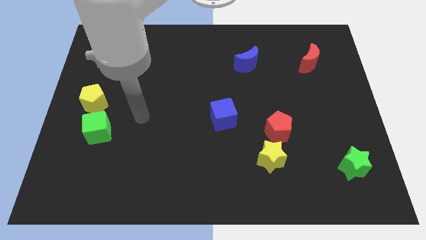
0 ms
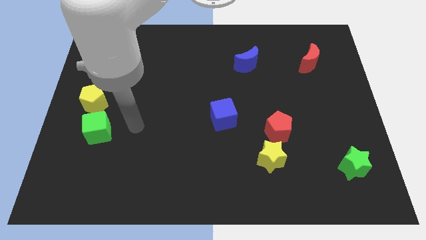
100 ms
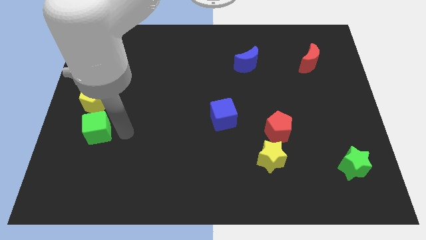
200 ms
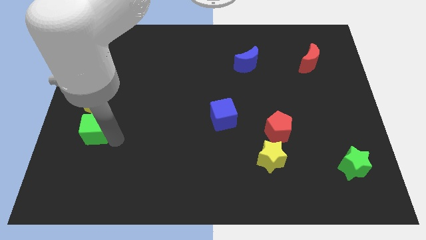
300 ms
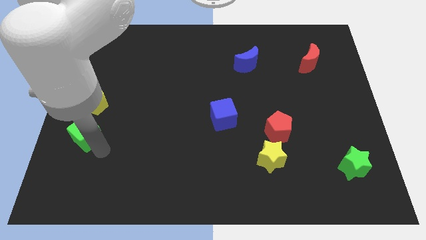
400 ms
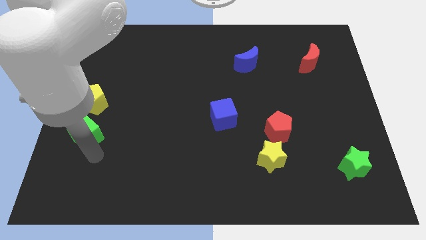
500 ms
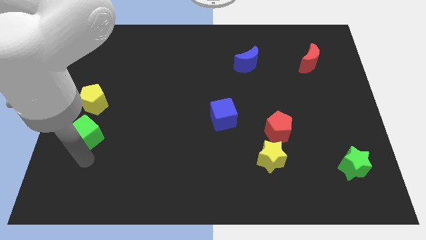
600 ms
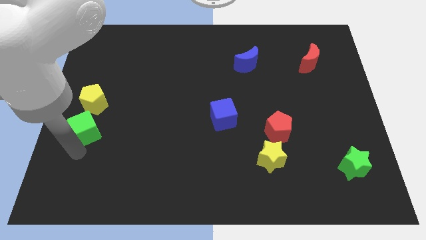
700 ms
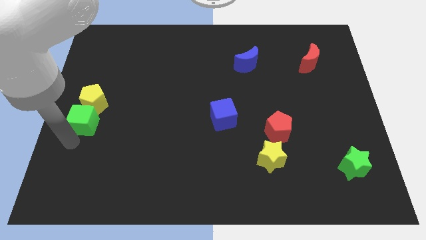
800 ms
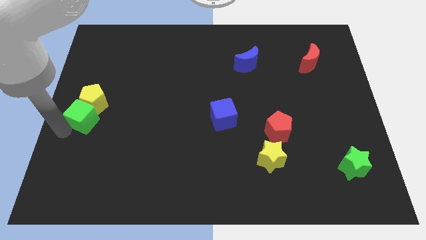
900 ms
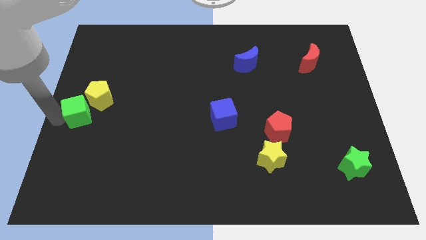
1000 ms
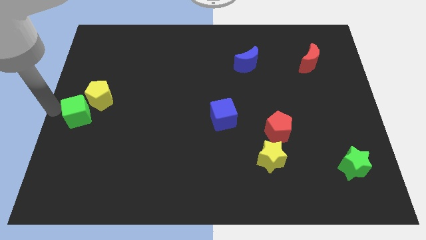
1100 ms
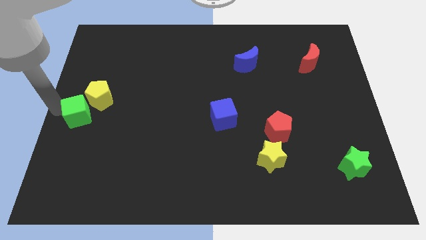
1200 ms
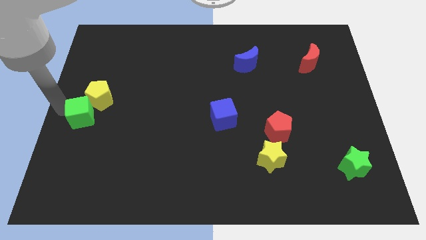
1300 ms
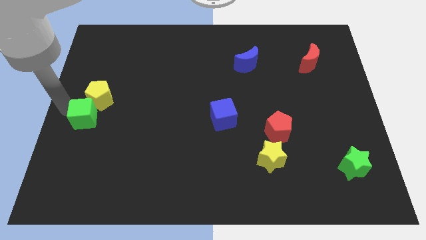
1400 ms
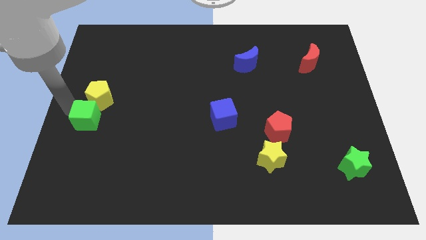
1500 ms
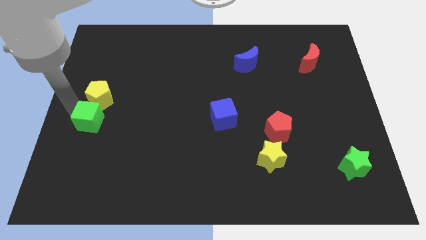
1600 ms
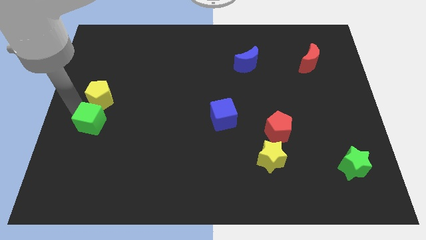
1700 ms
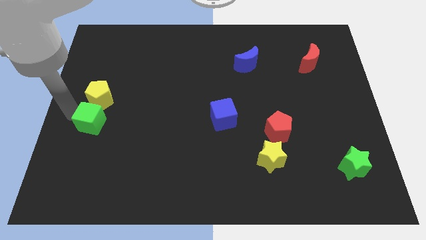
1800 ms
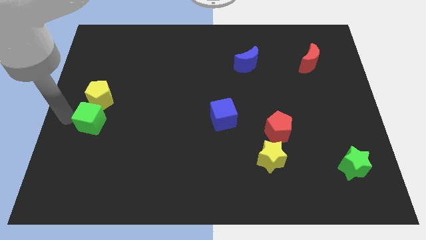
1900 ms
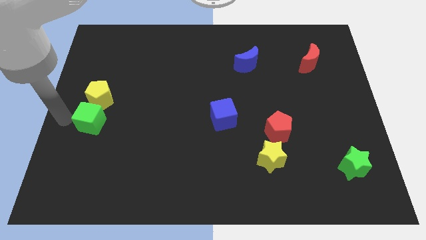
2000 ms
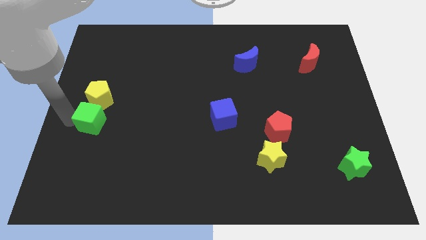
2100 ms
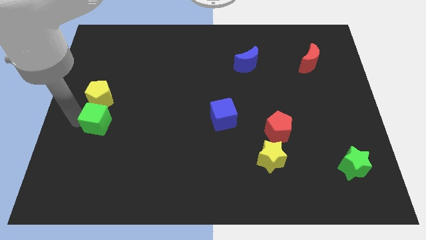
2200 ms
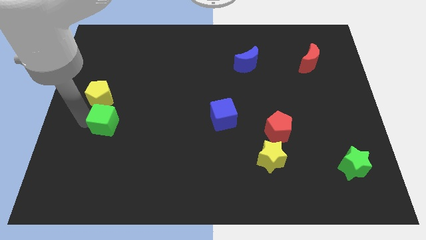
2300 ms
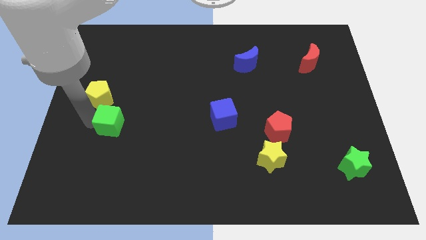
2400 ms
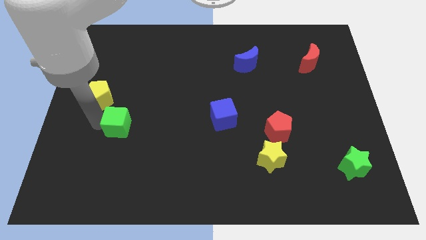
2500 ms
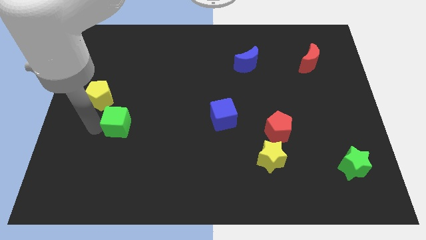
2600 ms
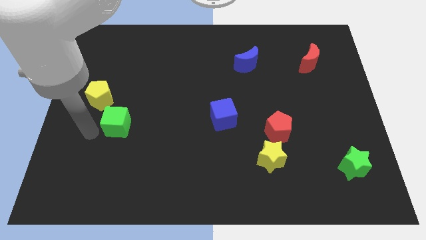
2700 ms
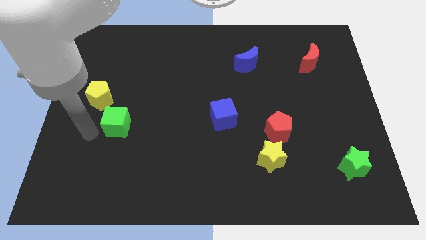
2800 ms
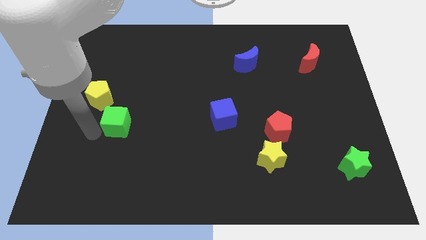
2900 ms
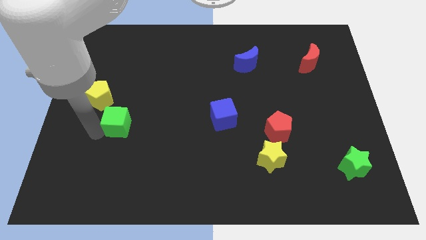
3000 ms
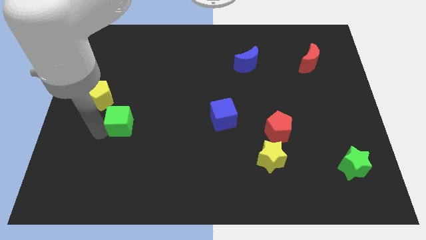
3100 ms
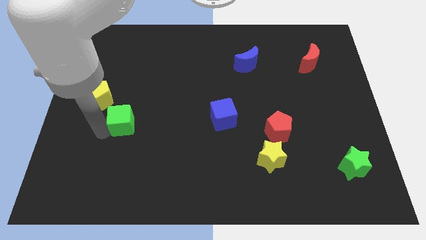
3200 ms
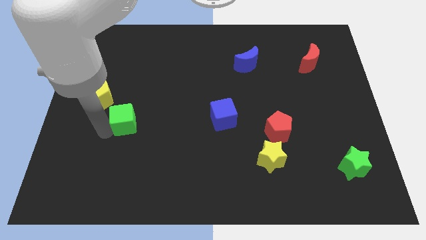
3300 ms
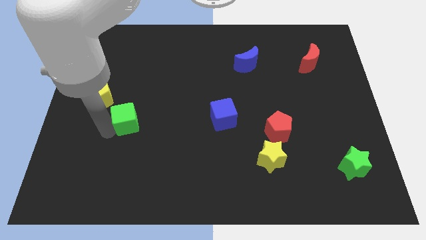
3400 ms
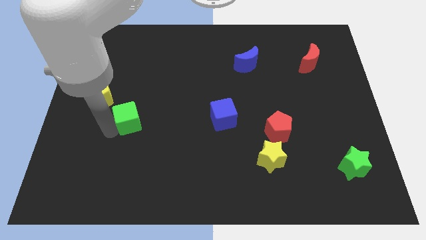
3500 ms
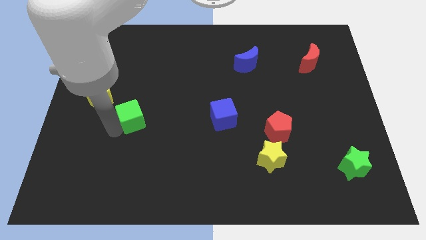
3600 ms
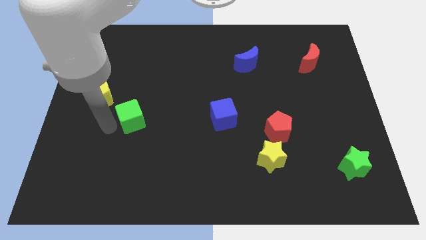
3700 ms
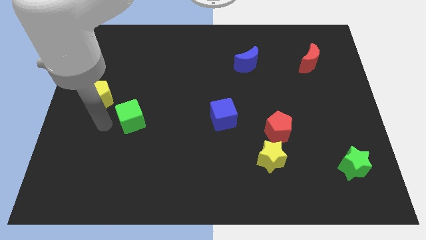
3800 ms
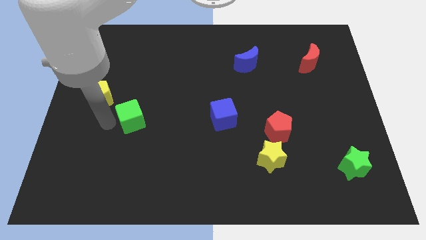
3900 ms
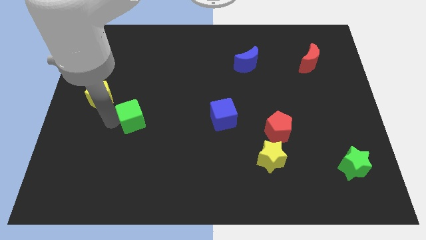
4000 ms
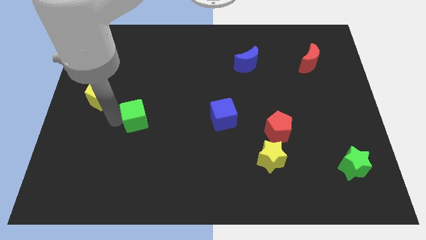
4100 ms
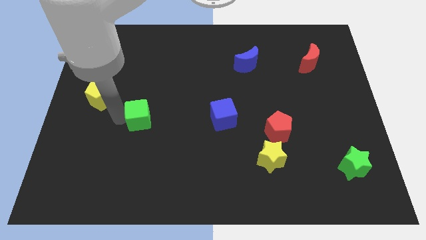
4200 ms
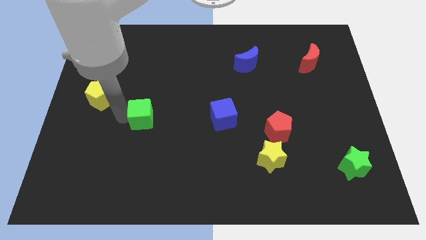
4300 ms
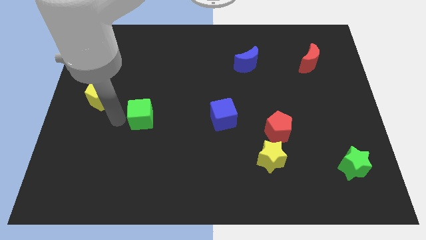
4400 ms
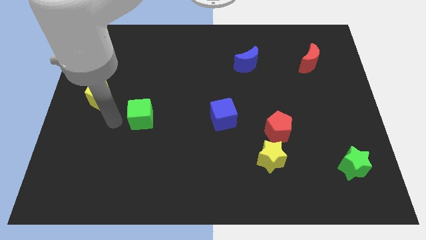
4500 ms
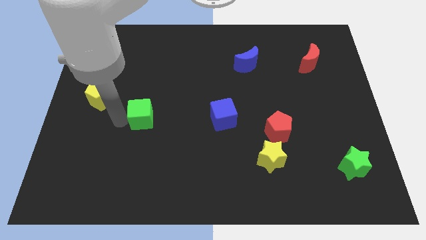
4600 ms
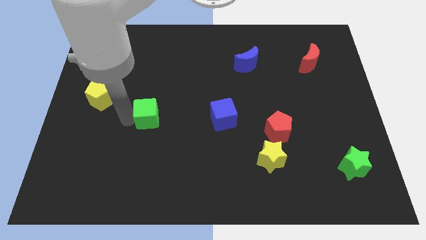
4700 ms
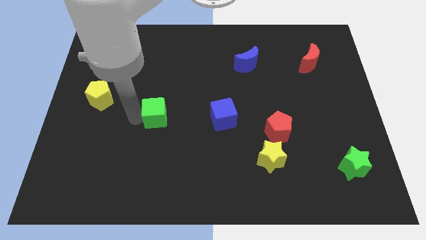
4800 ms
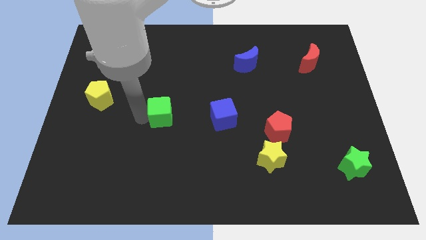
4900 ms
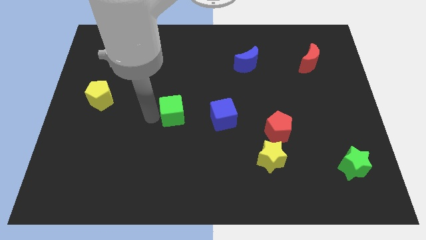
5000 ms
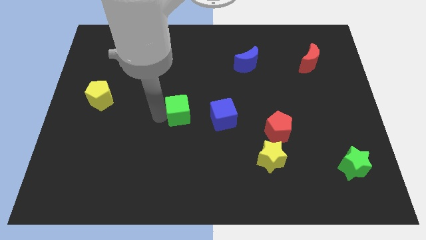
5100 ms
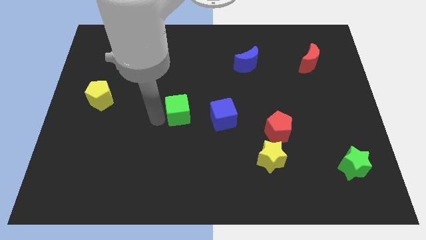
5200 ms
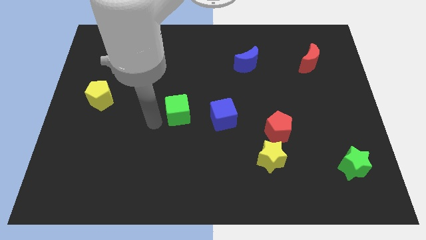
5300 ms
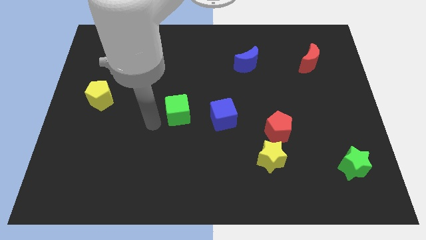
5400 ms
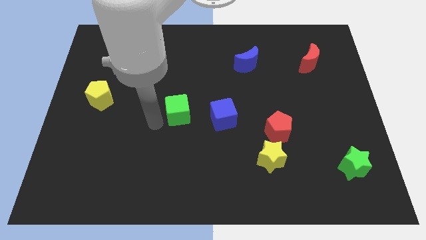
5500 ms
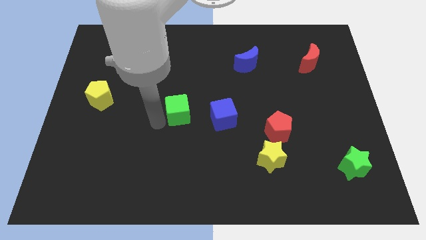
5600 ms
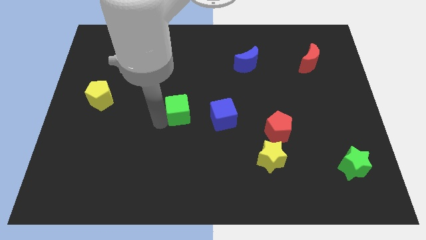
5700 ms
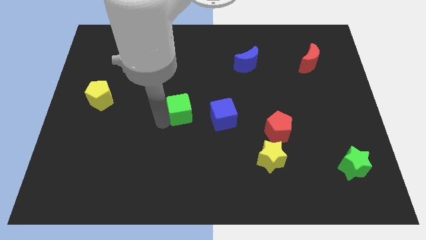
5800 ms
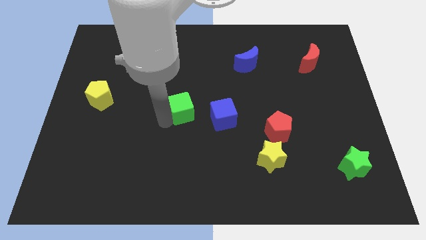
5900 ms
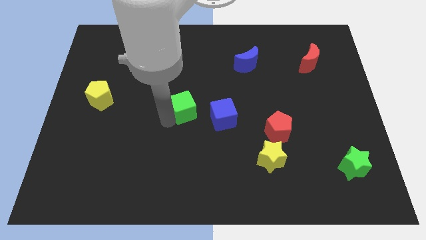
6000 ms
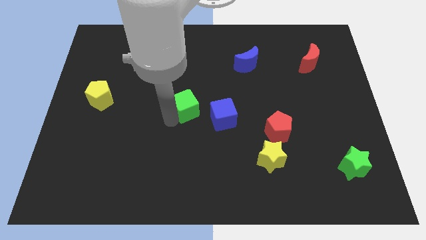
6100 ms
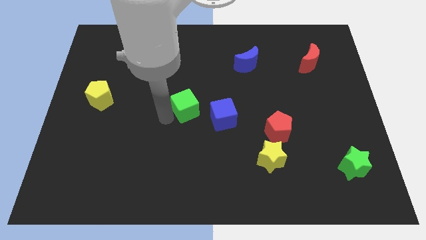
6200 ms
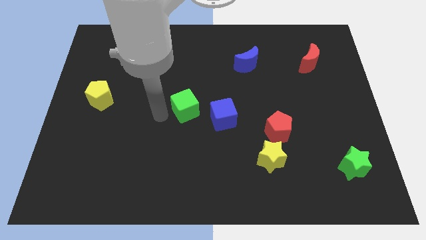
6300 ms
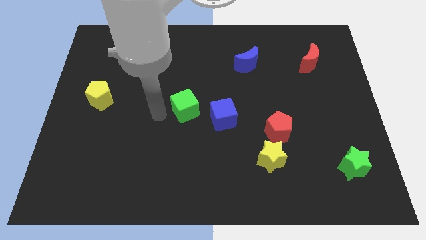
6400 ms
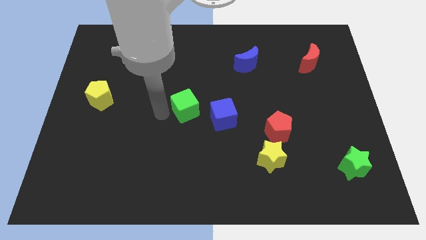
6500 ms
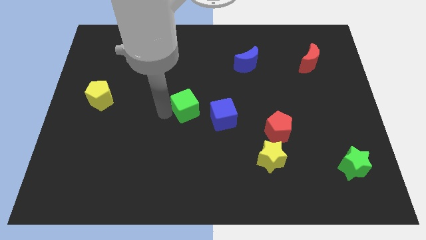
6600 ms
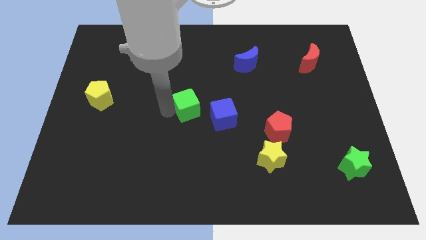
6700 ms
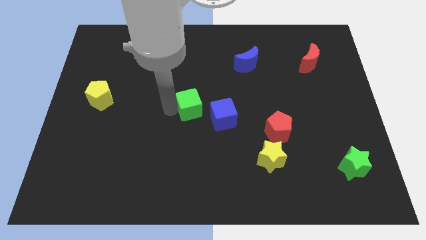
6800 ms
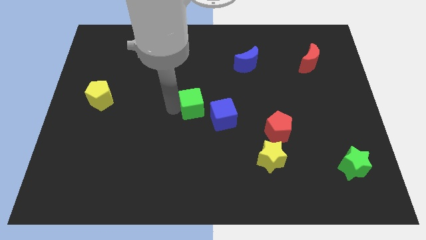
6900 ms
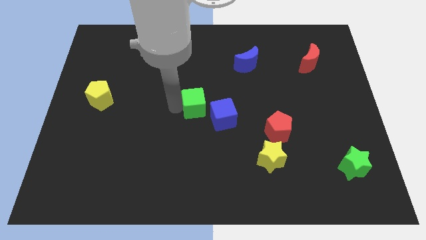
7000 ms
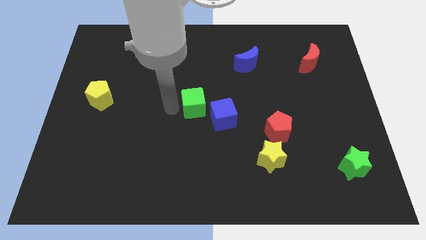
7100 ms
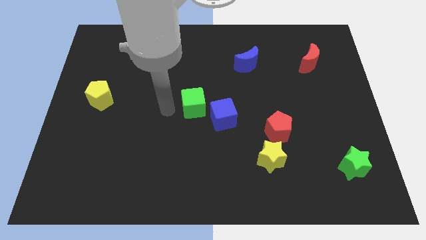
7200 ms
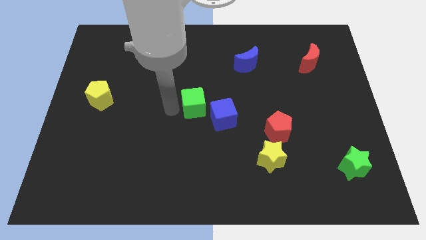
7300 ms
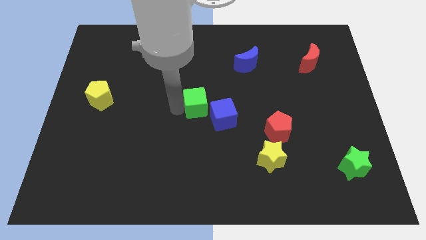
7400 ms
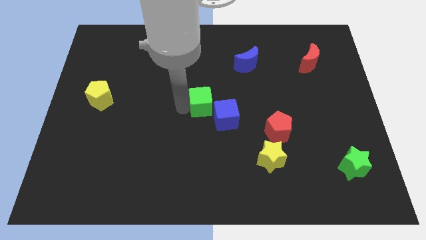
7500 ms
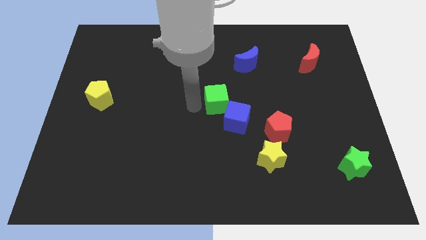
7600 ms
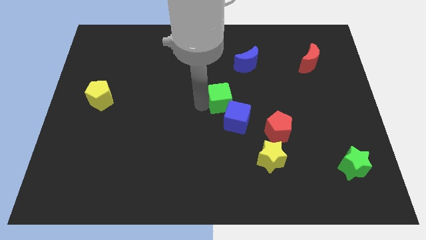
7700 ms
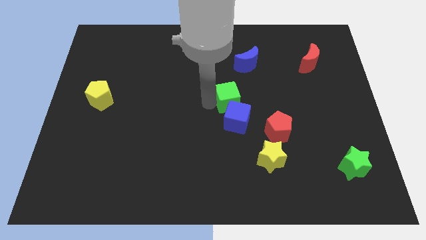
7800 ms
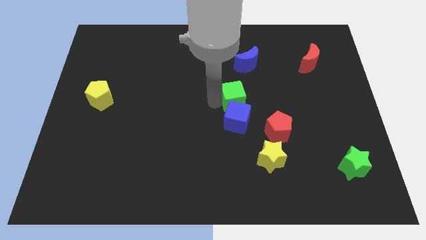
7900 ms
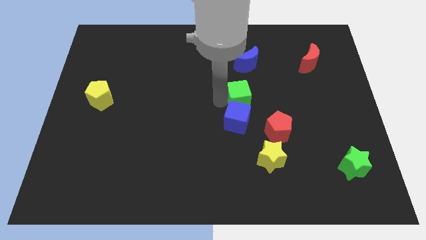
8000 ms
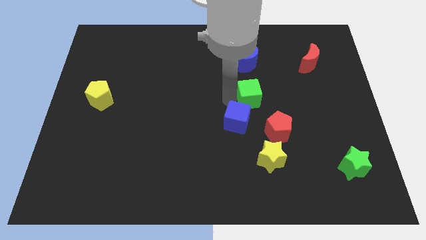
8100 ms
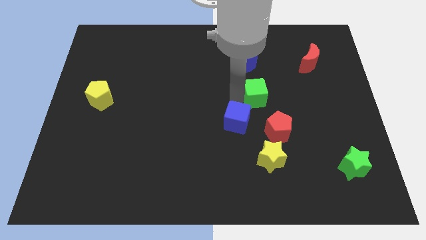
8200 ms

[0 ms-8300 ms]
slide the green cube to the top side of the red pentagon
